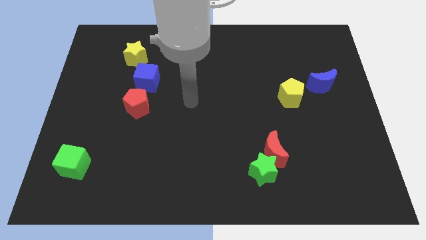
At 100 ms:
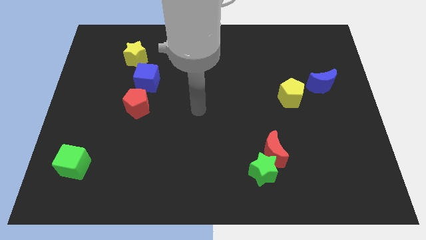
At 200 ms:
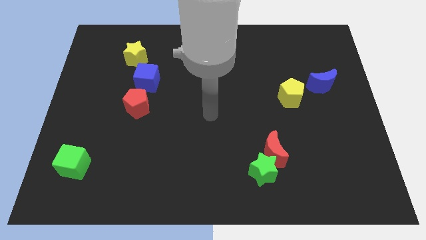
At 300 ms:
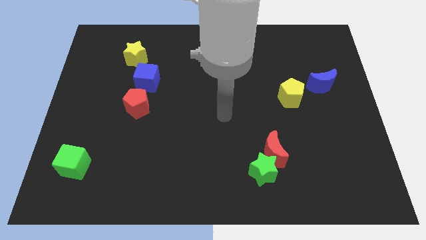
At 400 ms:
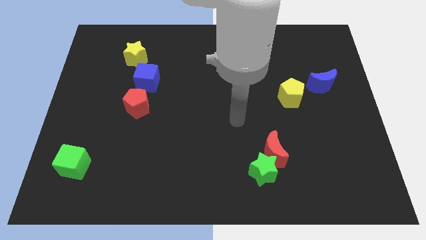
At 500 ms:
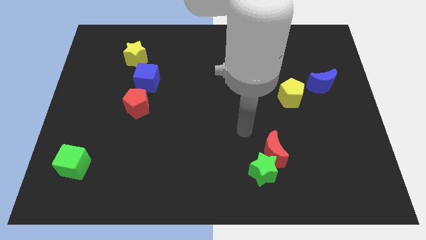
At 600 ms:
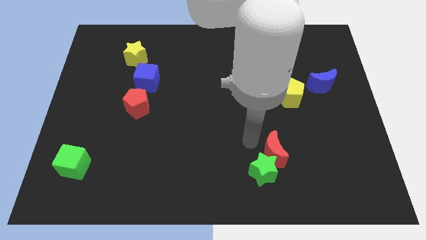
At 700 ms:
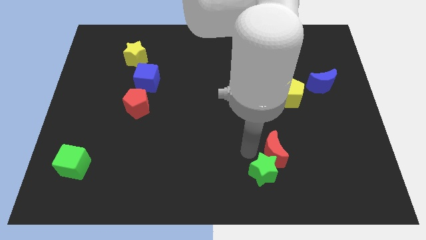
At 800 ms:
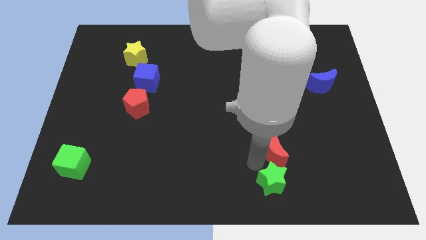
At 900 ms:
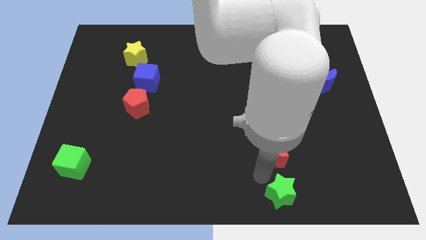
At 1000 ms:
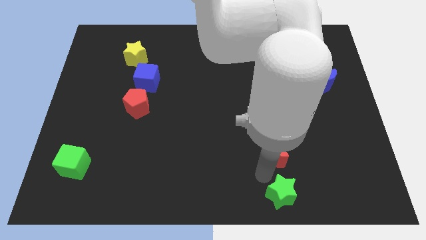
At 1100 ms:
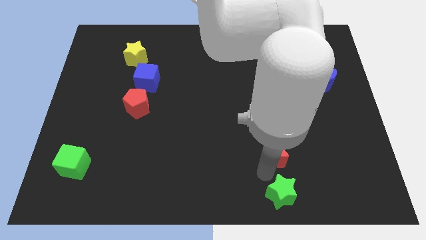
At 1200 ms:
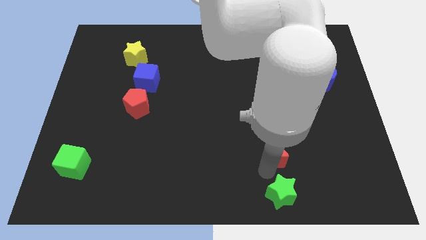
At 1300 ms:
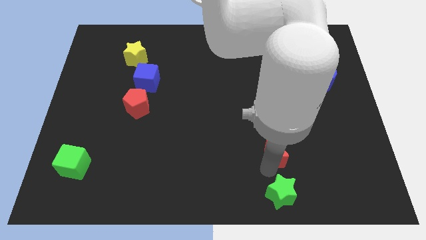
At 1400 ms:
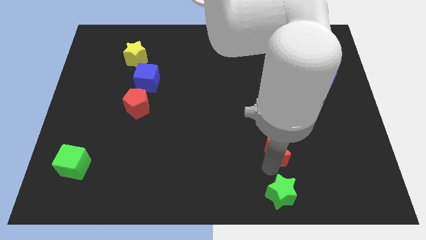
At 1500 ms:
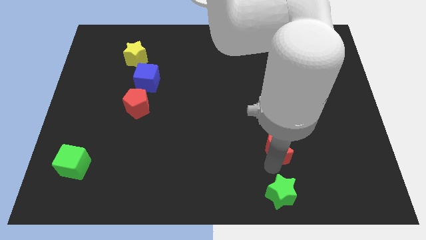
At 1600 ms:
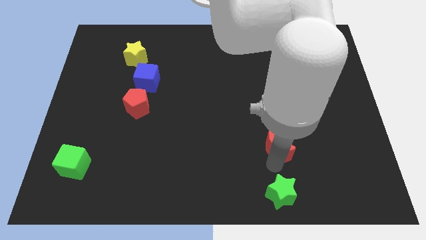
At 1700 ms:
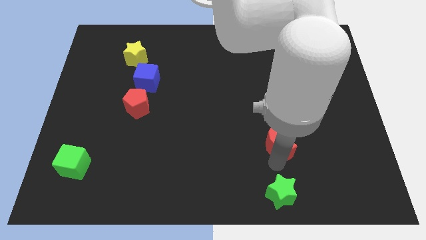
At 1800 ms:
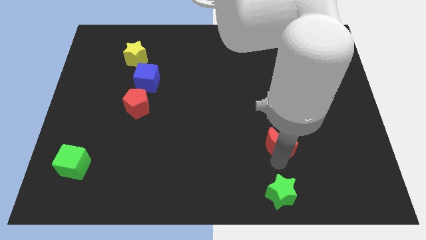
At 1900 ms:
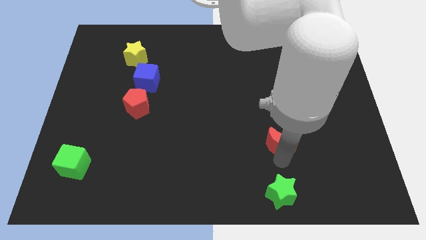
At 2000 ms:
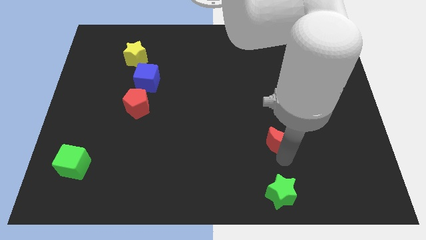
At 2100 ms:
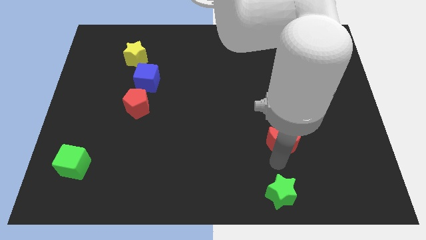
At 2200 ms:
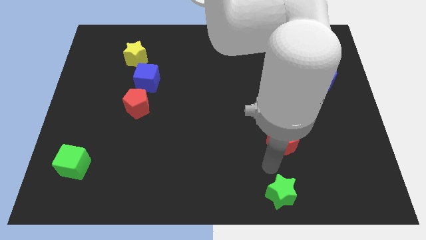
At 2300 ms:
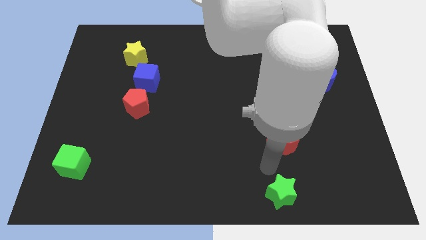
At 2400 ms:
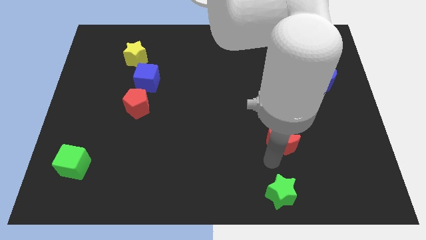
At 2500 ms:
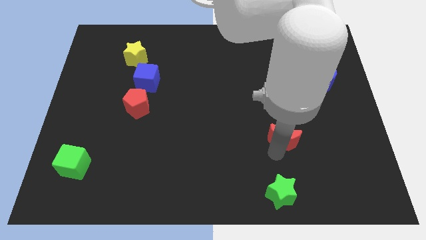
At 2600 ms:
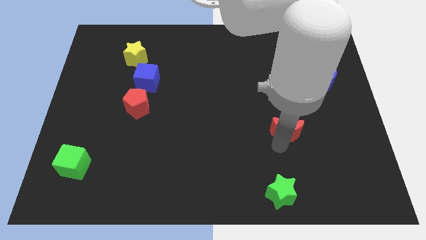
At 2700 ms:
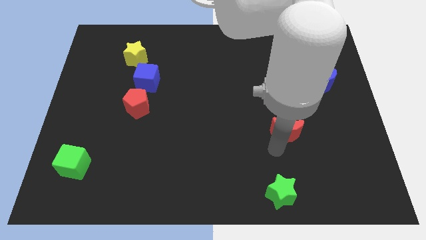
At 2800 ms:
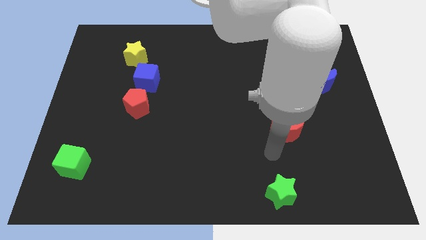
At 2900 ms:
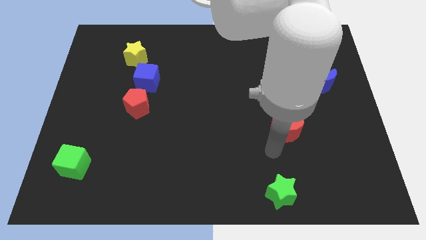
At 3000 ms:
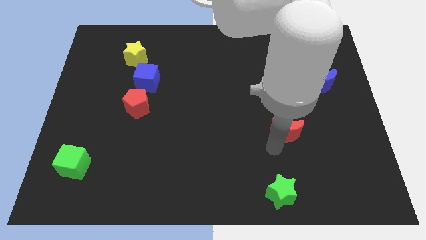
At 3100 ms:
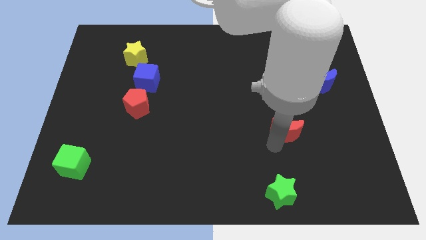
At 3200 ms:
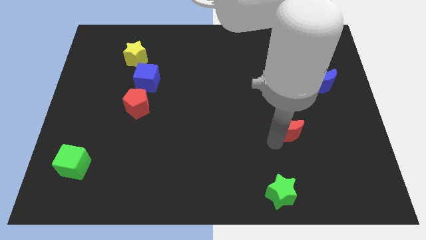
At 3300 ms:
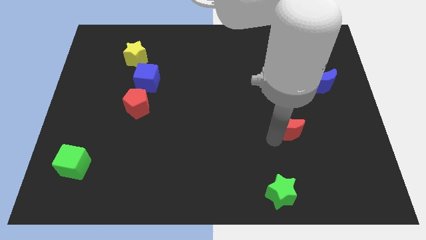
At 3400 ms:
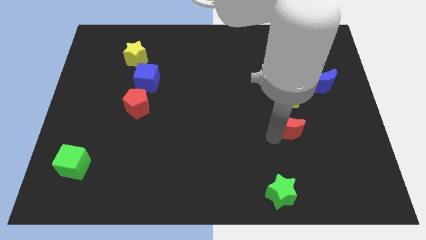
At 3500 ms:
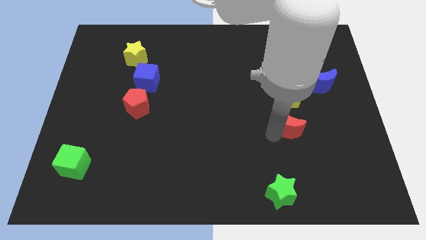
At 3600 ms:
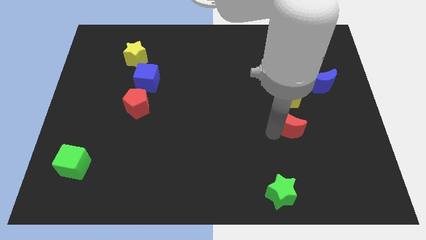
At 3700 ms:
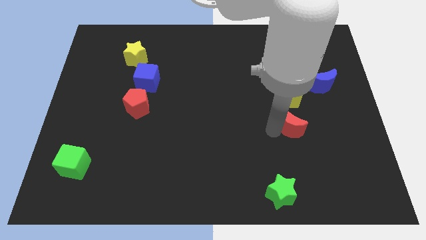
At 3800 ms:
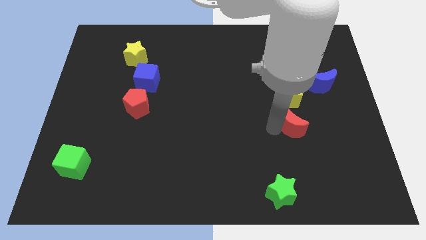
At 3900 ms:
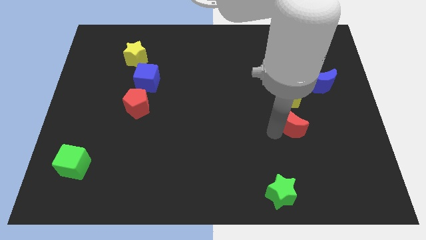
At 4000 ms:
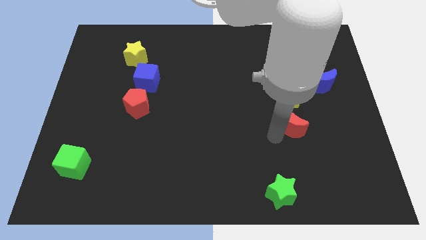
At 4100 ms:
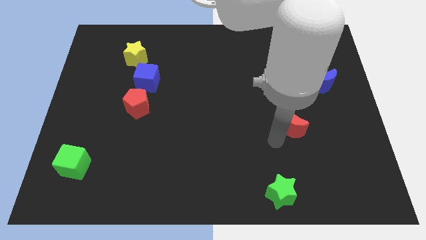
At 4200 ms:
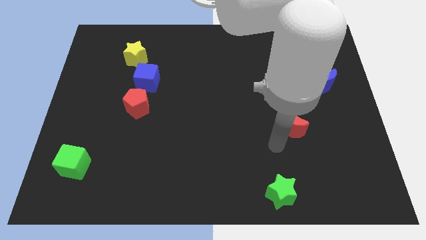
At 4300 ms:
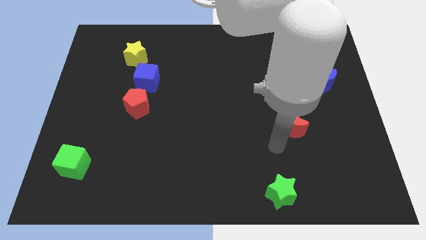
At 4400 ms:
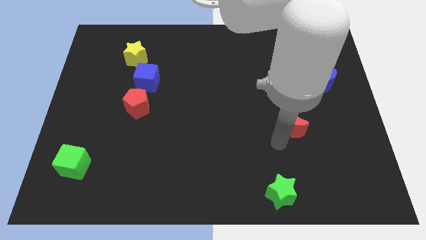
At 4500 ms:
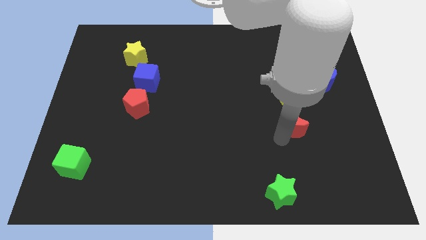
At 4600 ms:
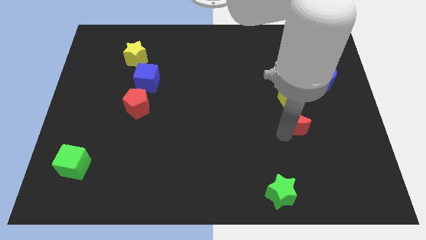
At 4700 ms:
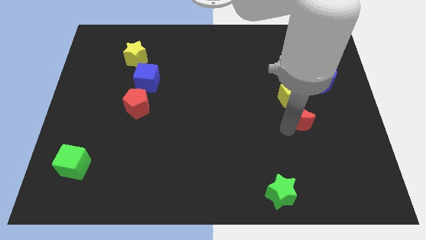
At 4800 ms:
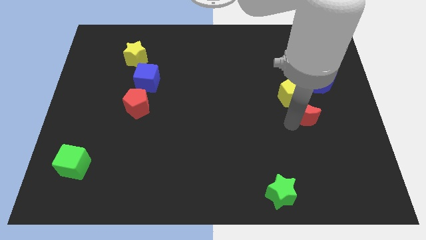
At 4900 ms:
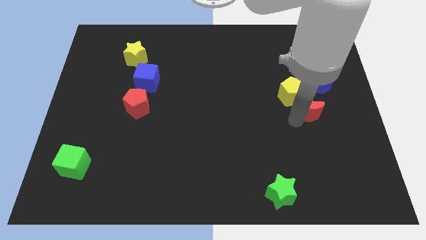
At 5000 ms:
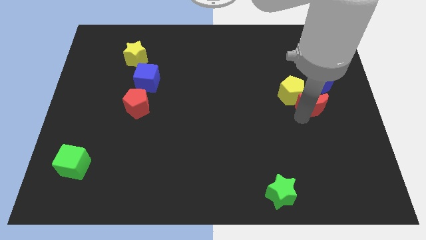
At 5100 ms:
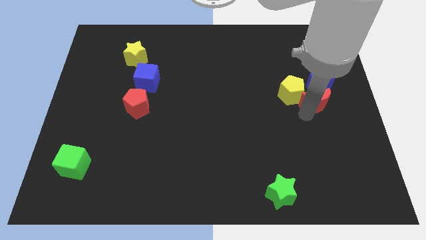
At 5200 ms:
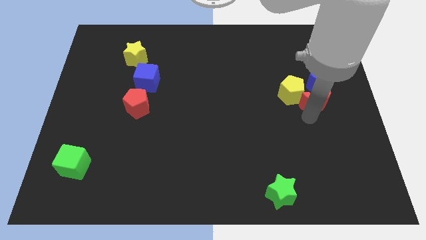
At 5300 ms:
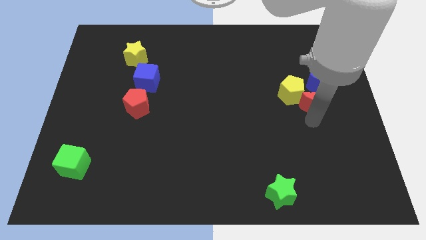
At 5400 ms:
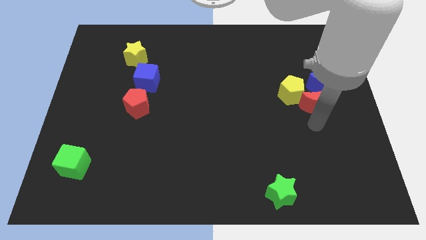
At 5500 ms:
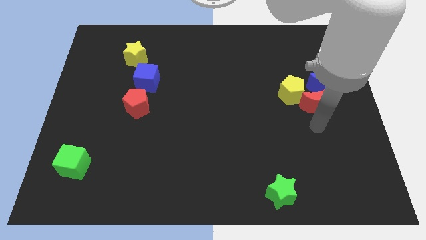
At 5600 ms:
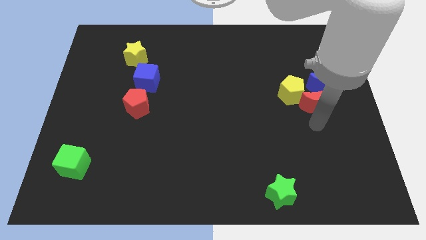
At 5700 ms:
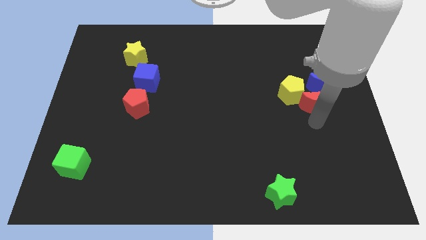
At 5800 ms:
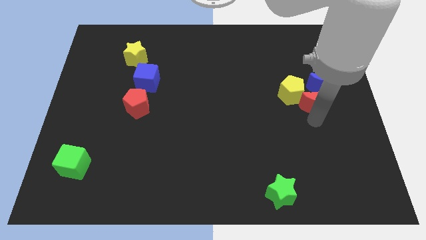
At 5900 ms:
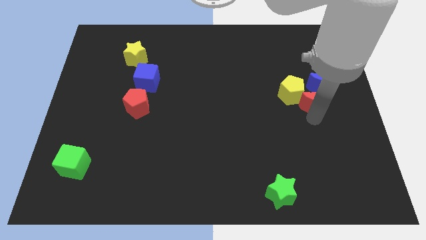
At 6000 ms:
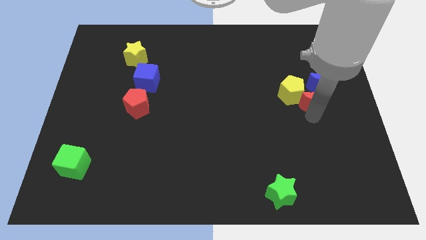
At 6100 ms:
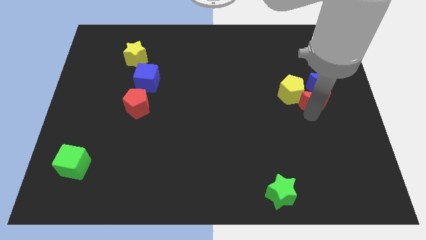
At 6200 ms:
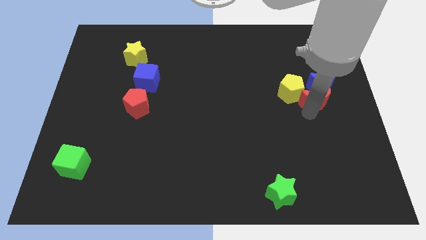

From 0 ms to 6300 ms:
push the red moon to the blue moon

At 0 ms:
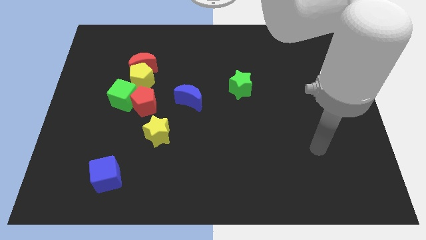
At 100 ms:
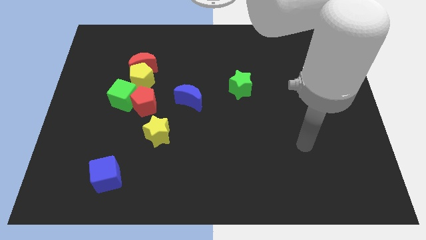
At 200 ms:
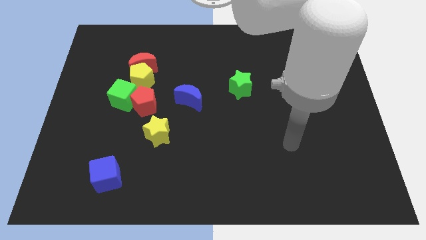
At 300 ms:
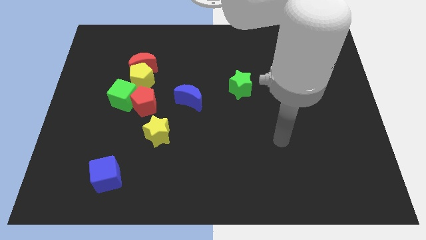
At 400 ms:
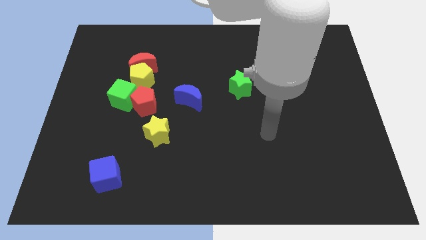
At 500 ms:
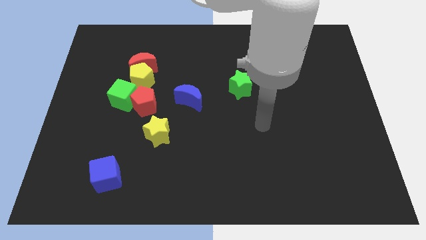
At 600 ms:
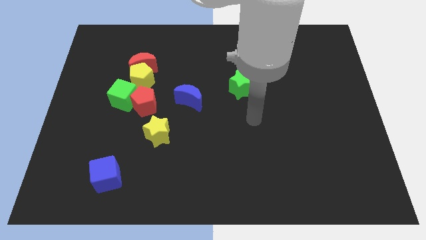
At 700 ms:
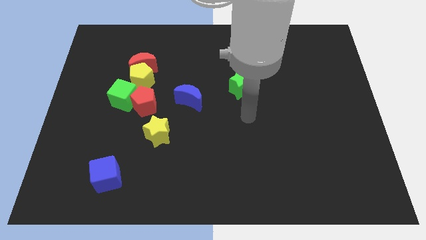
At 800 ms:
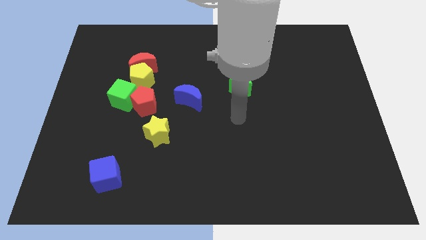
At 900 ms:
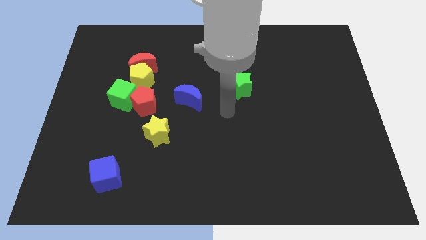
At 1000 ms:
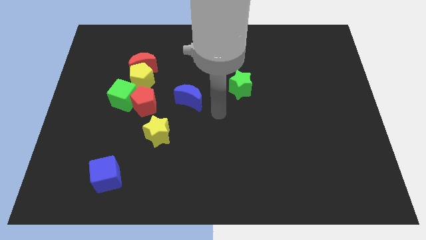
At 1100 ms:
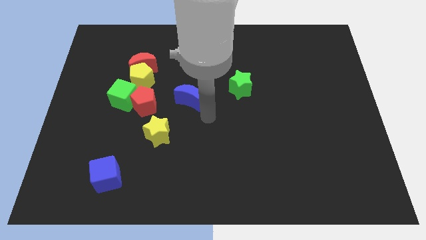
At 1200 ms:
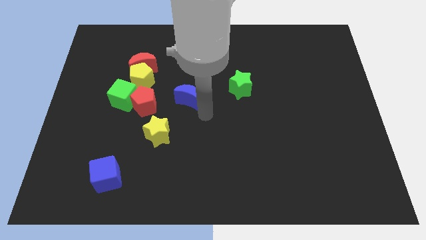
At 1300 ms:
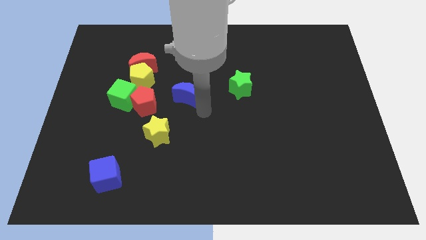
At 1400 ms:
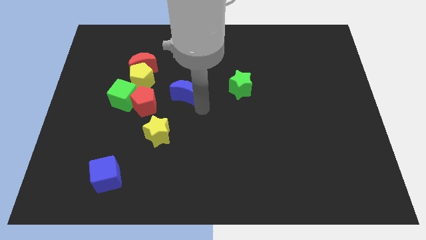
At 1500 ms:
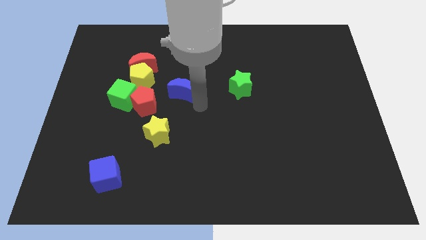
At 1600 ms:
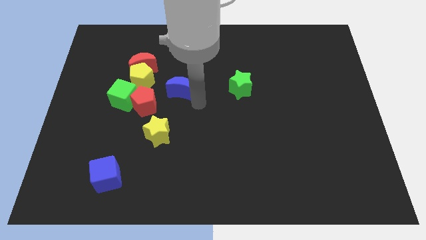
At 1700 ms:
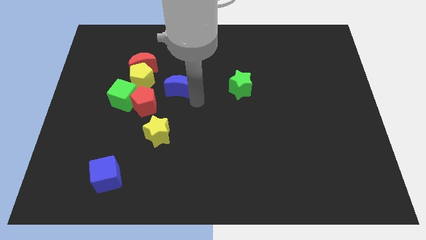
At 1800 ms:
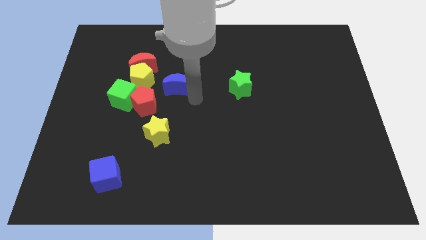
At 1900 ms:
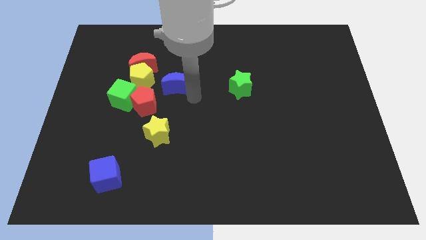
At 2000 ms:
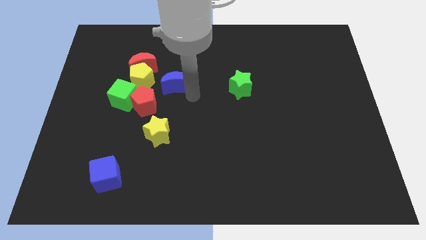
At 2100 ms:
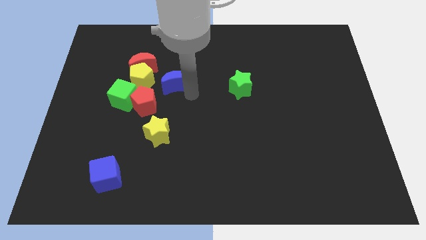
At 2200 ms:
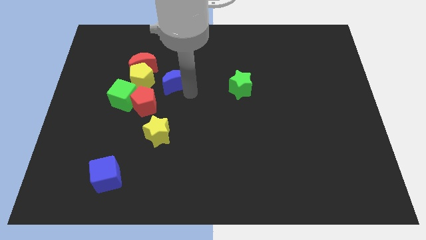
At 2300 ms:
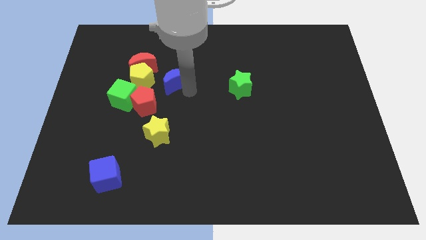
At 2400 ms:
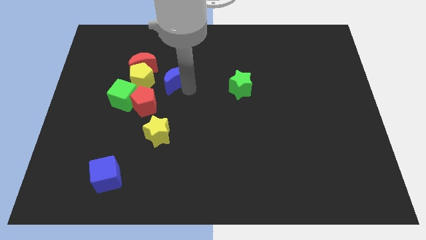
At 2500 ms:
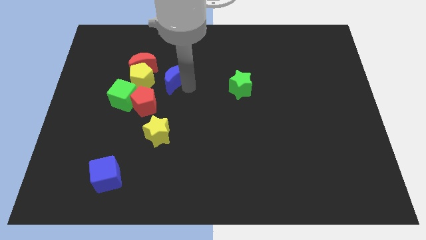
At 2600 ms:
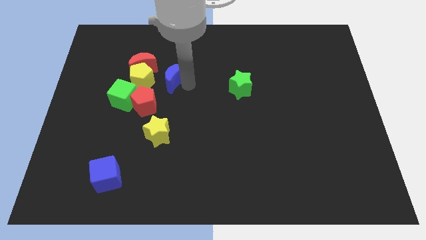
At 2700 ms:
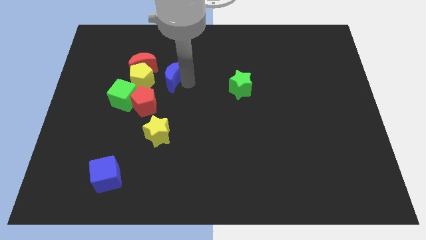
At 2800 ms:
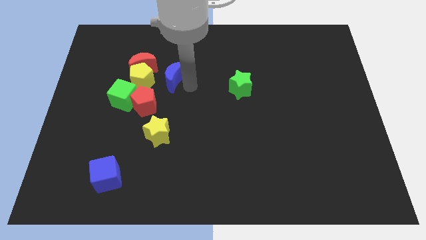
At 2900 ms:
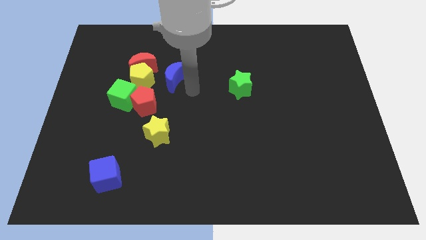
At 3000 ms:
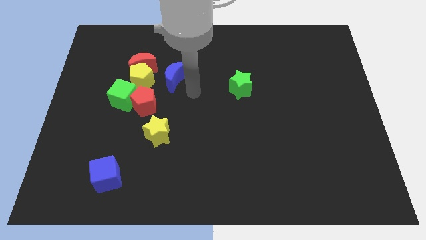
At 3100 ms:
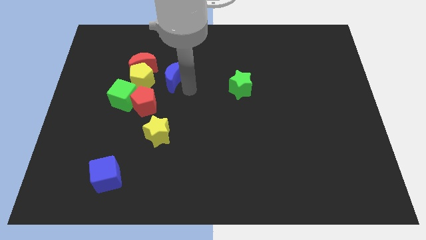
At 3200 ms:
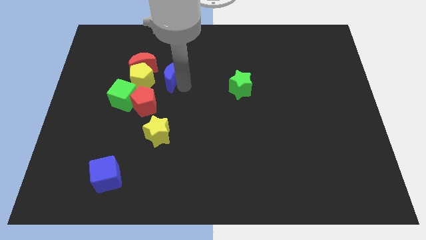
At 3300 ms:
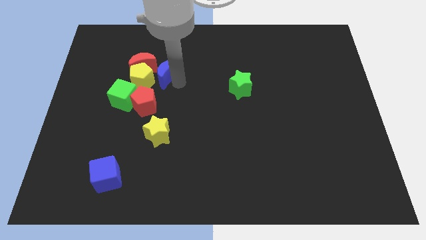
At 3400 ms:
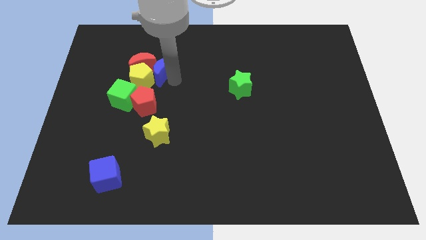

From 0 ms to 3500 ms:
move the blue moon close to the red moon
